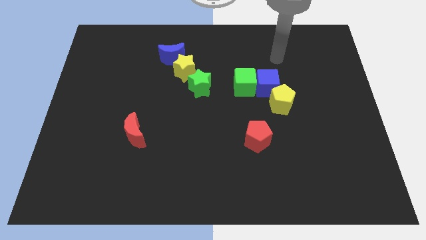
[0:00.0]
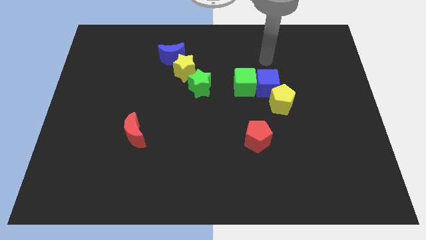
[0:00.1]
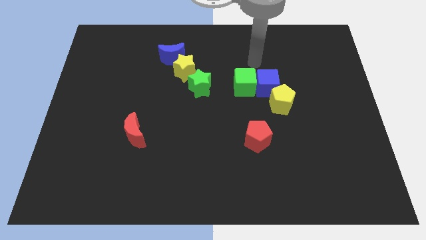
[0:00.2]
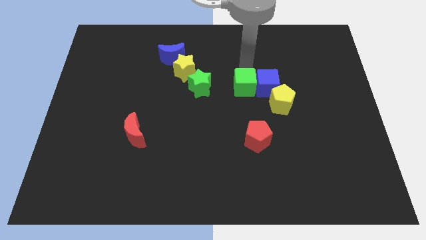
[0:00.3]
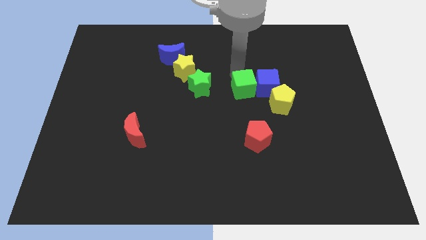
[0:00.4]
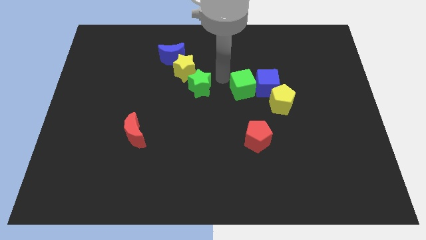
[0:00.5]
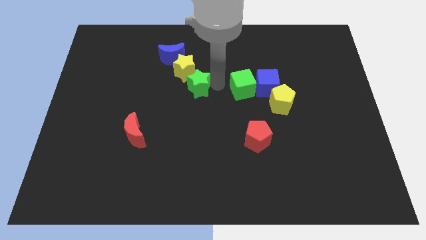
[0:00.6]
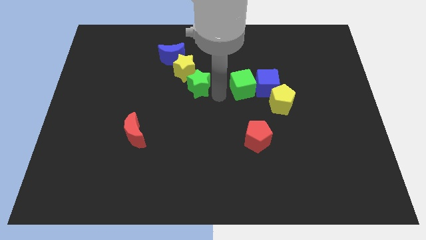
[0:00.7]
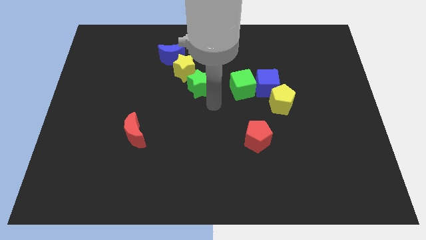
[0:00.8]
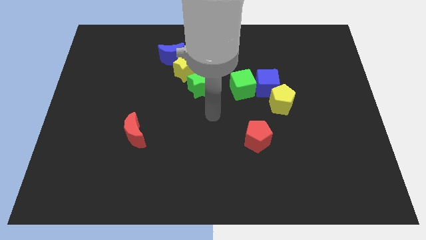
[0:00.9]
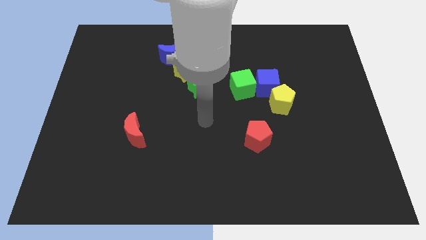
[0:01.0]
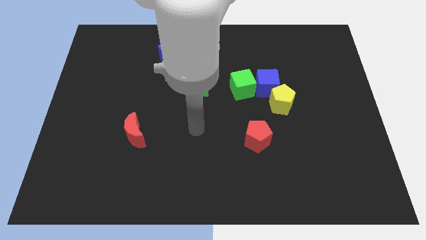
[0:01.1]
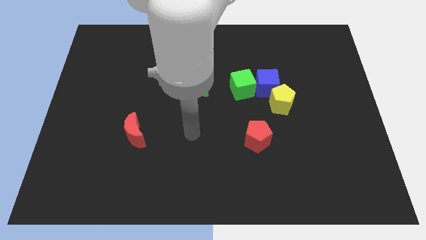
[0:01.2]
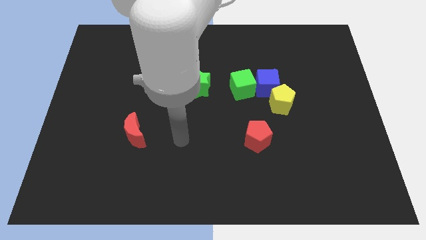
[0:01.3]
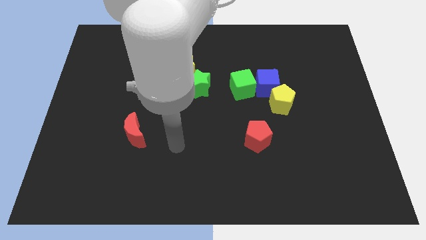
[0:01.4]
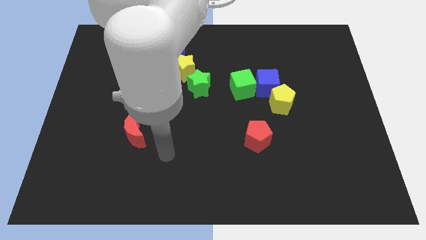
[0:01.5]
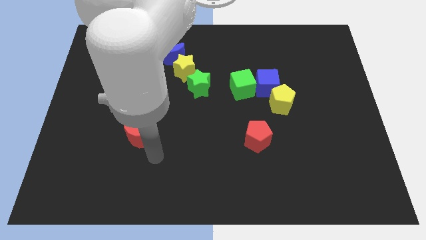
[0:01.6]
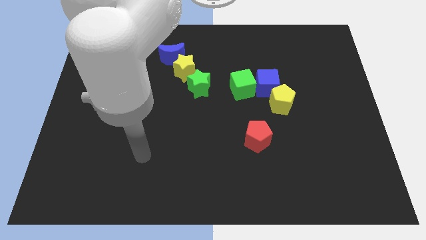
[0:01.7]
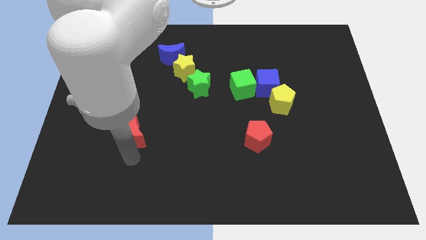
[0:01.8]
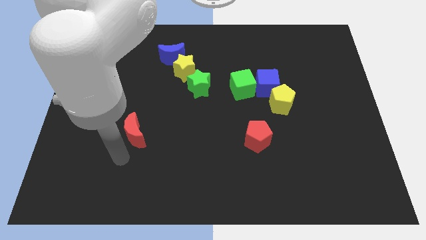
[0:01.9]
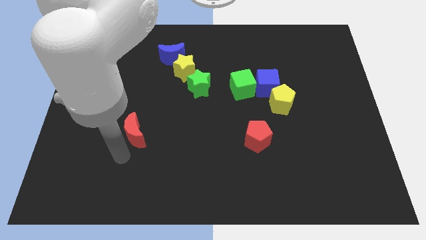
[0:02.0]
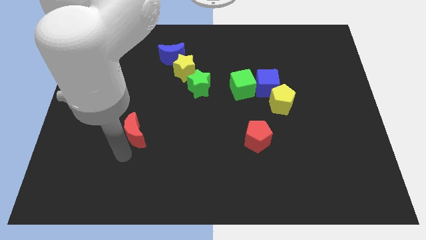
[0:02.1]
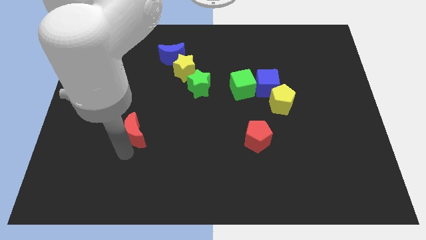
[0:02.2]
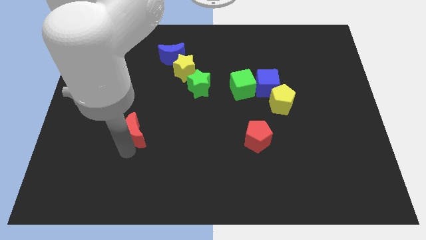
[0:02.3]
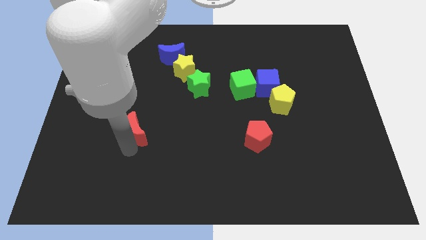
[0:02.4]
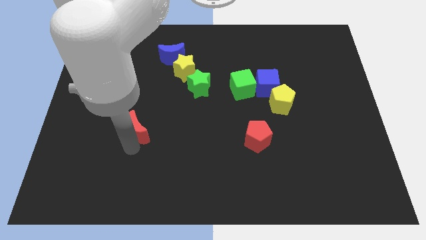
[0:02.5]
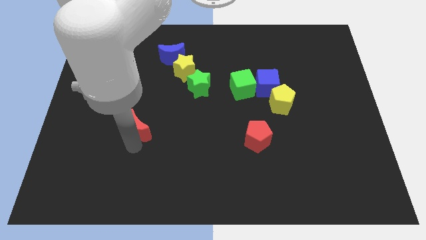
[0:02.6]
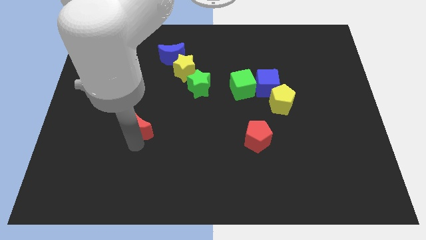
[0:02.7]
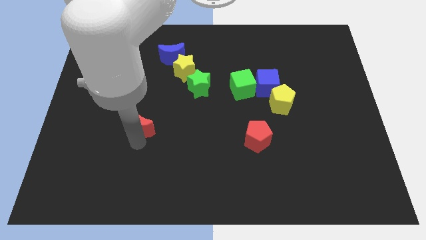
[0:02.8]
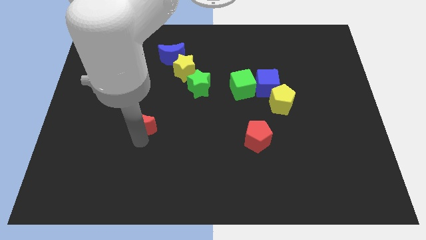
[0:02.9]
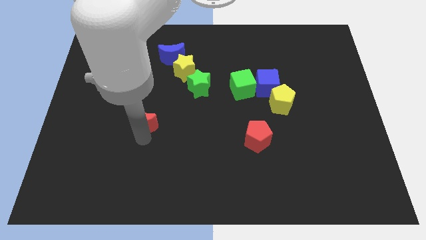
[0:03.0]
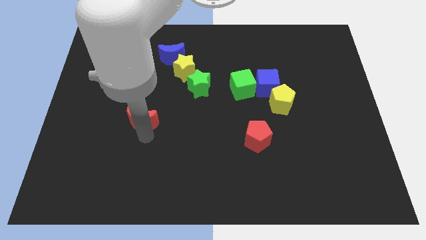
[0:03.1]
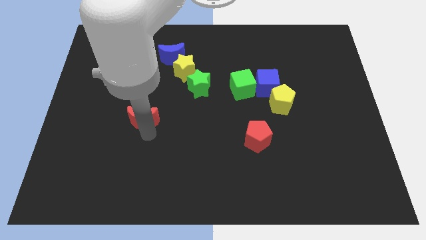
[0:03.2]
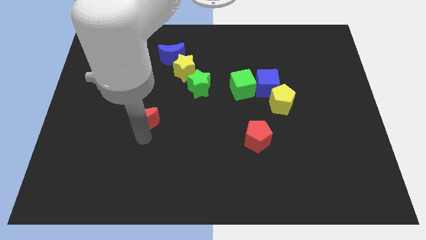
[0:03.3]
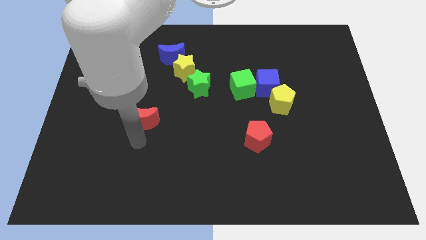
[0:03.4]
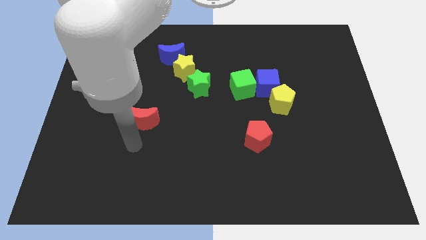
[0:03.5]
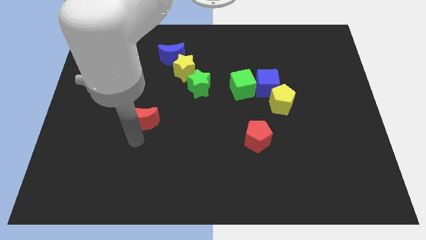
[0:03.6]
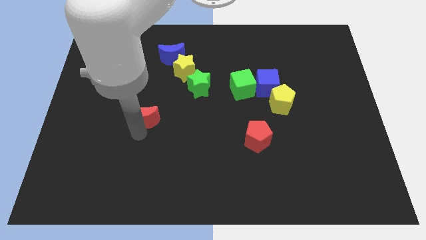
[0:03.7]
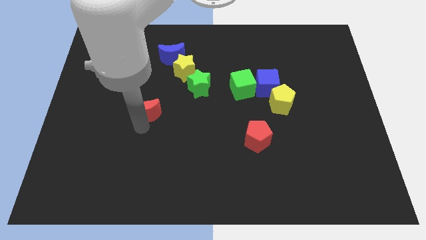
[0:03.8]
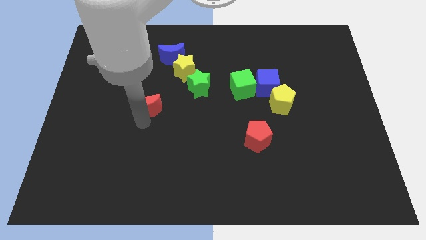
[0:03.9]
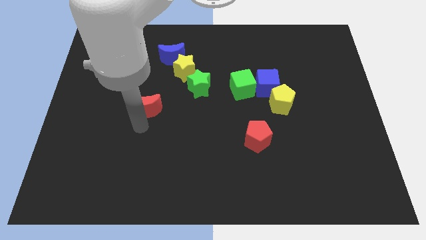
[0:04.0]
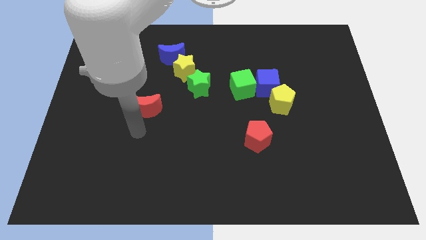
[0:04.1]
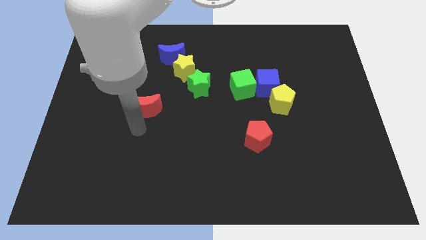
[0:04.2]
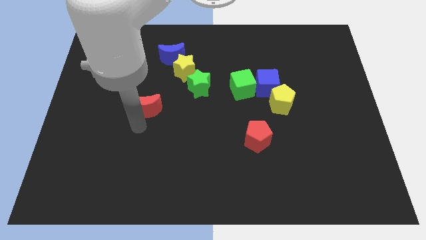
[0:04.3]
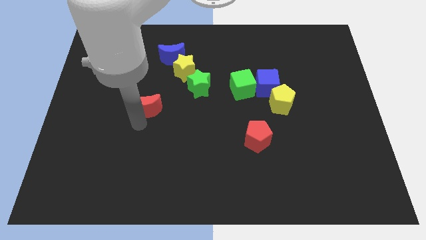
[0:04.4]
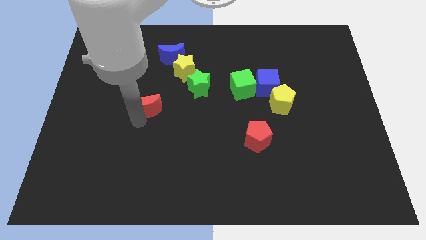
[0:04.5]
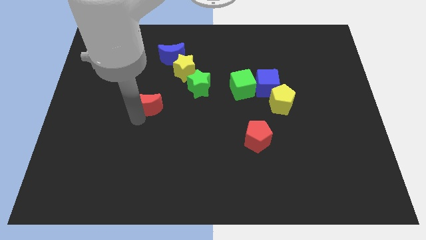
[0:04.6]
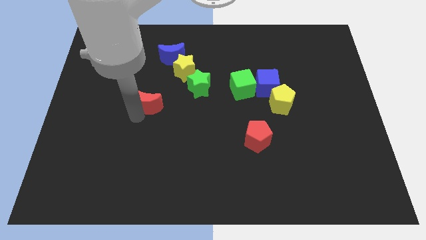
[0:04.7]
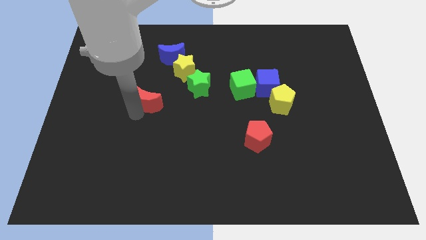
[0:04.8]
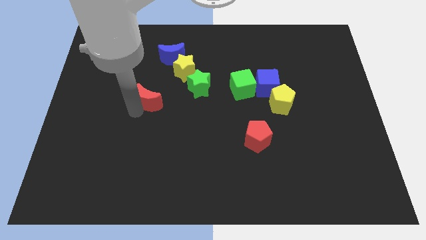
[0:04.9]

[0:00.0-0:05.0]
move the red moon left of the green star
